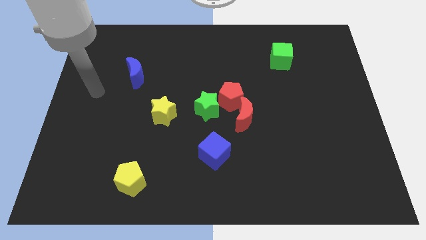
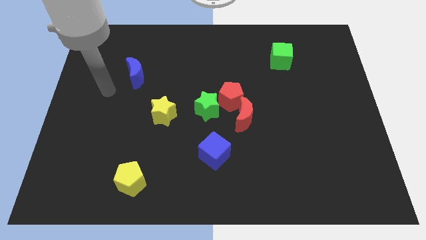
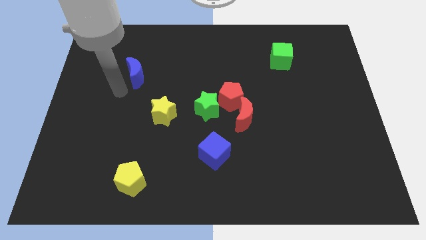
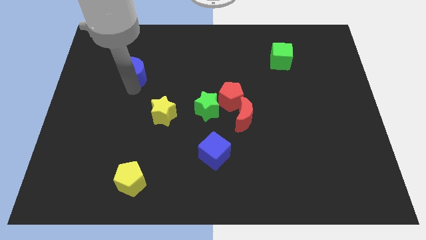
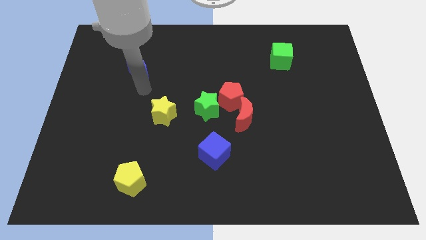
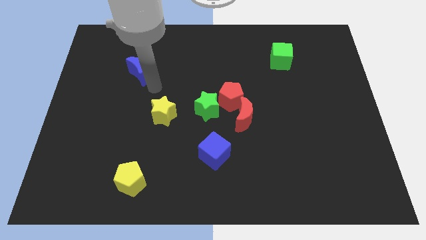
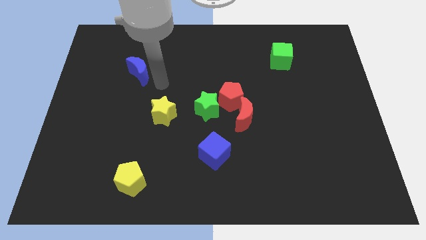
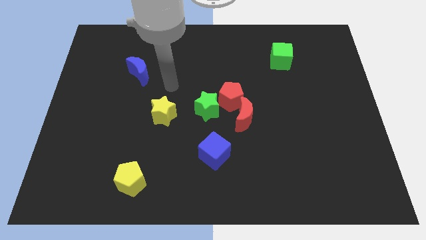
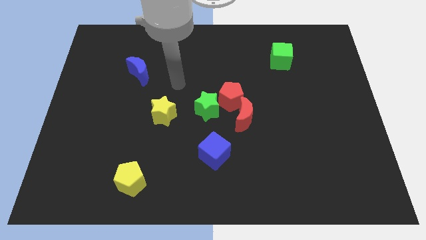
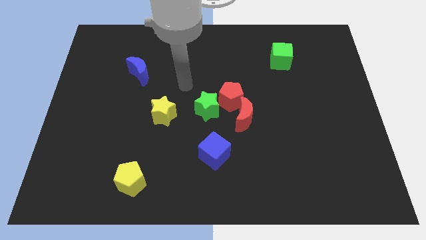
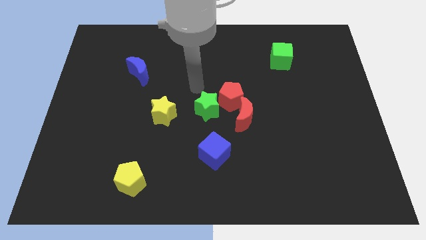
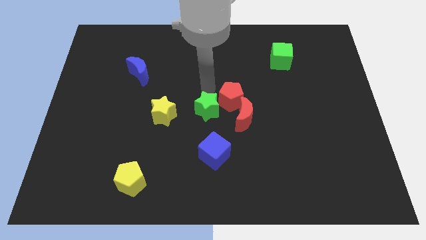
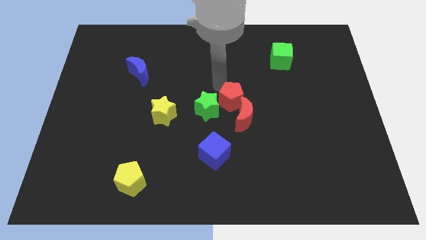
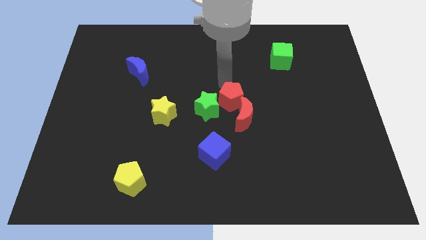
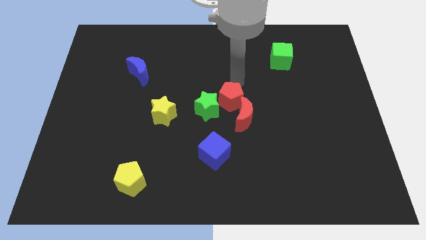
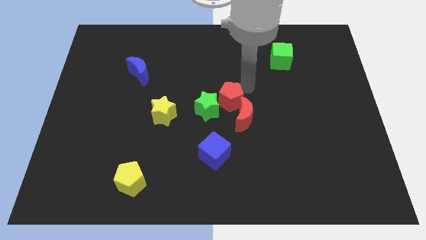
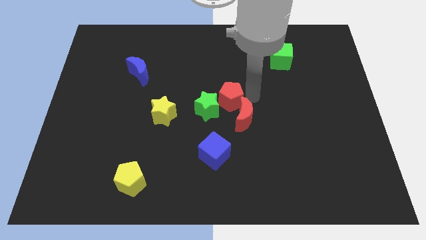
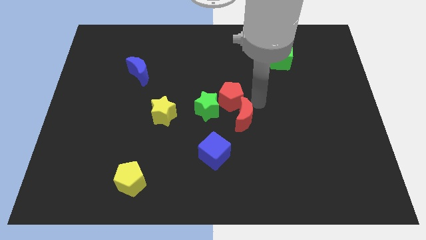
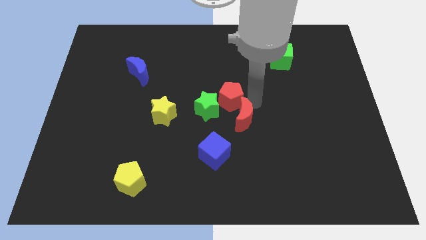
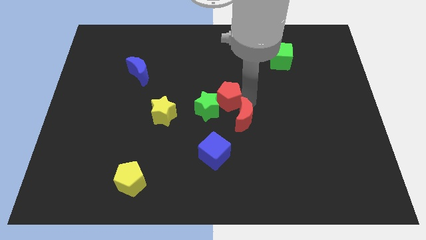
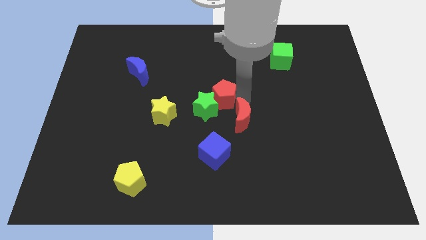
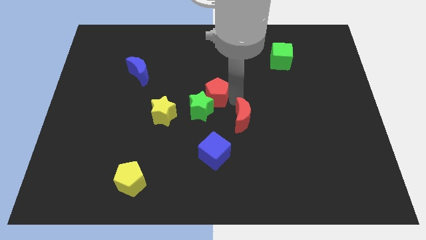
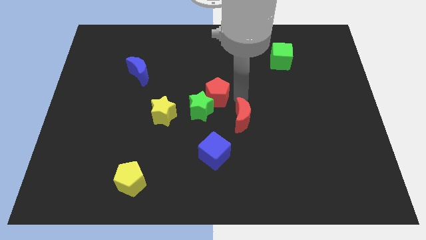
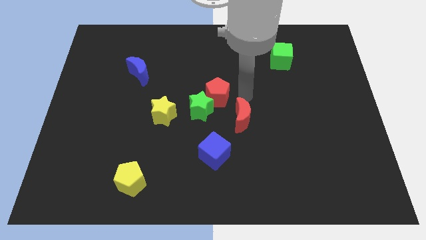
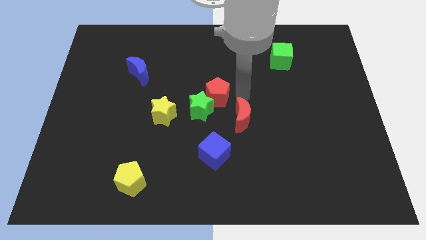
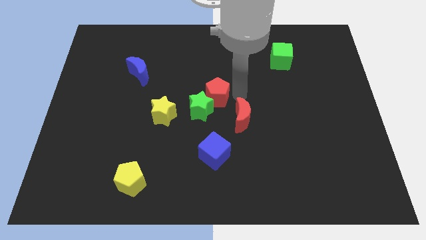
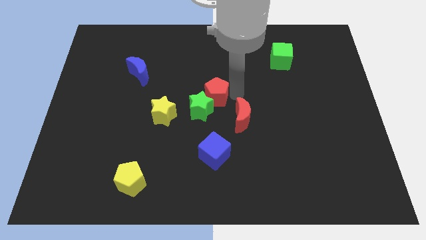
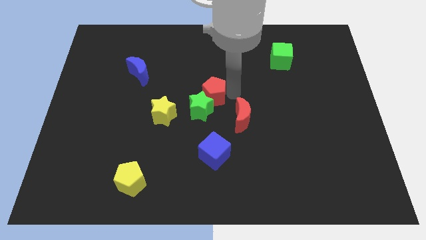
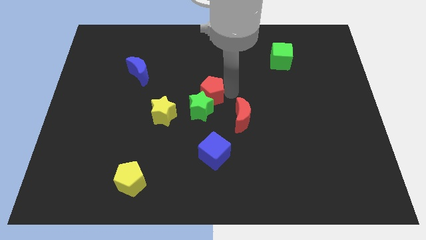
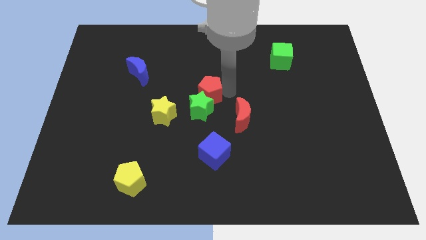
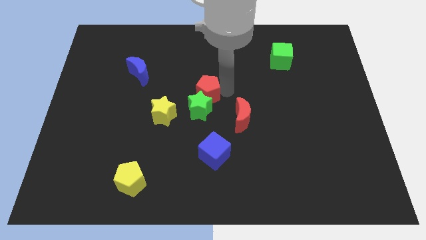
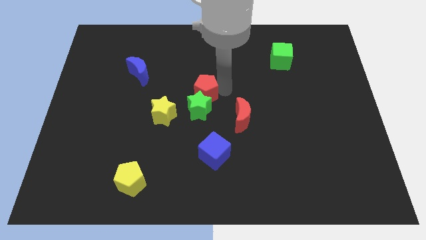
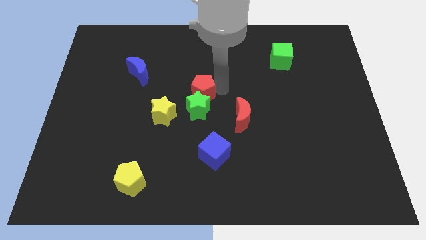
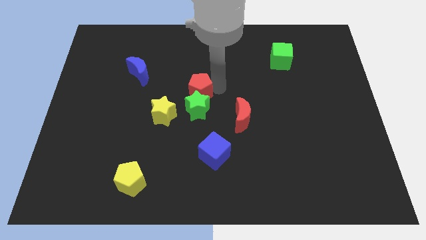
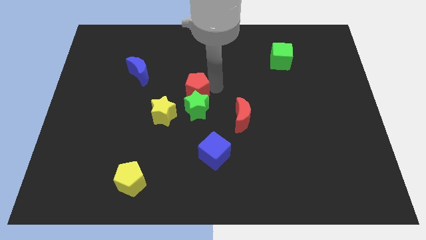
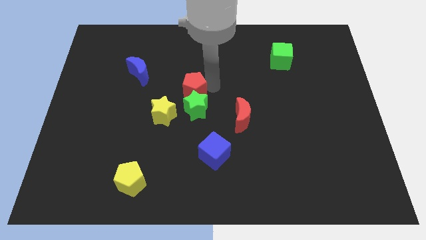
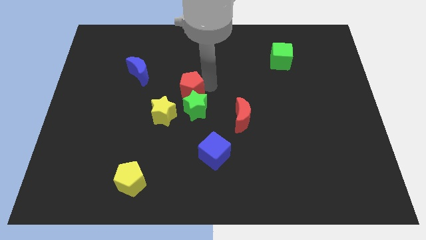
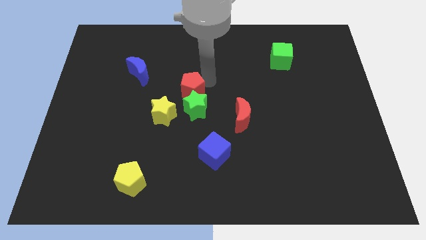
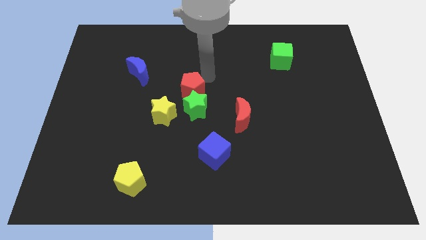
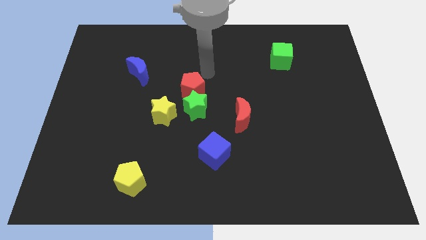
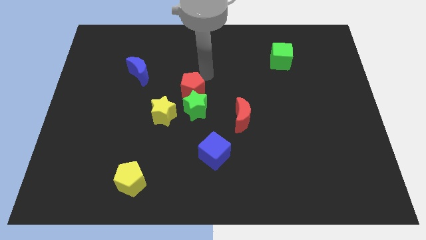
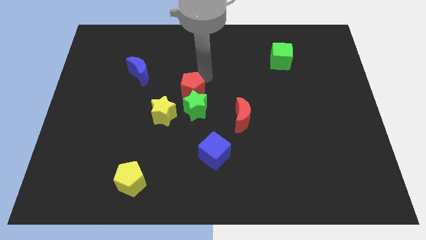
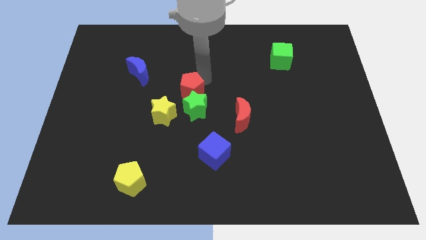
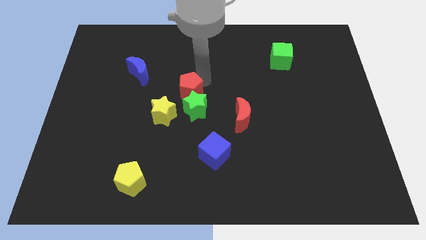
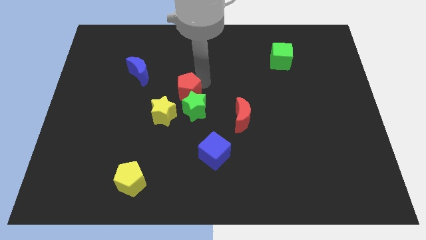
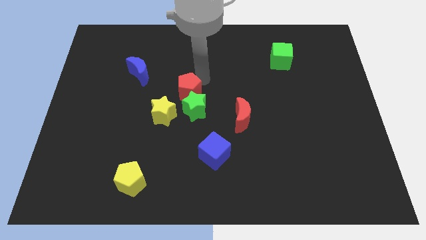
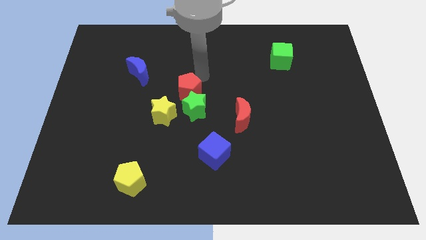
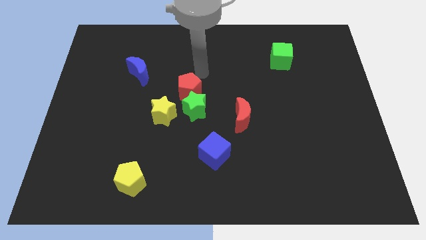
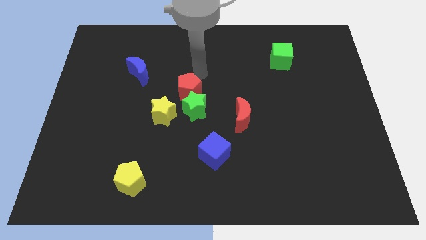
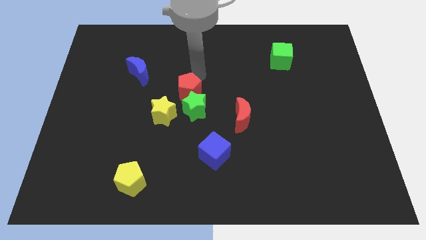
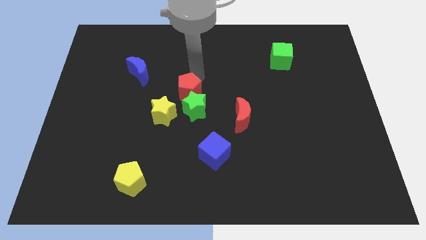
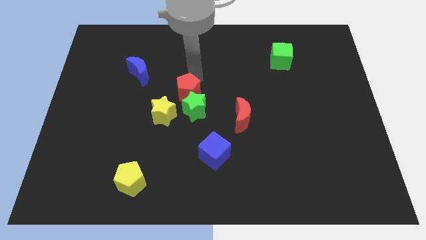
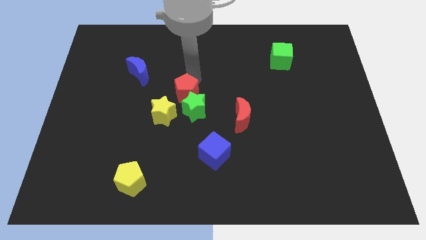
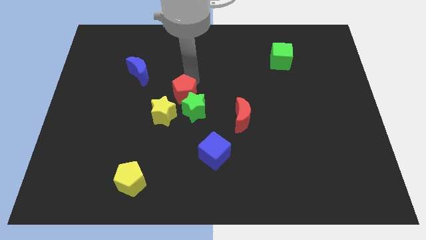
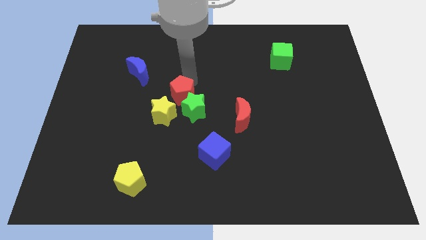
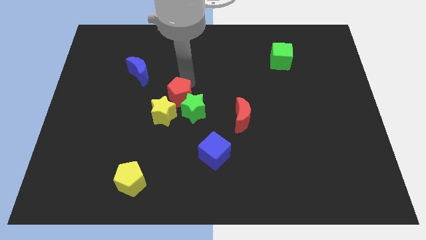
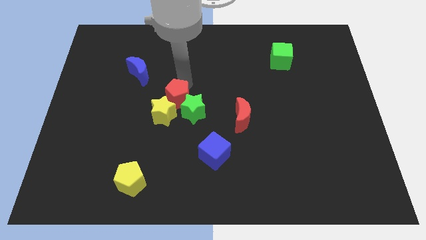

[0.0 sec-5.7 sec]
move the red pentagon next to the yellow star
